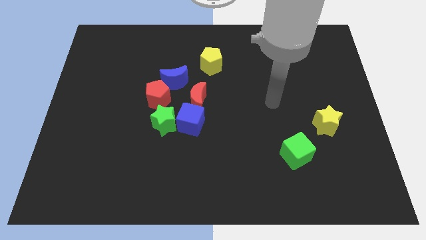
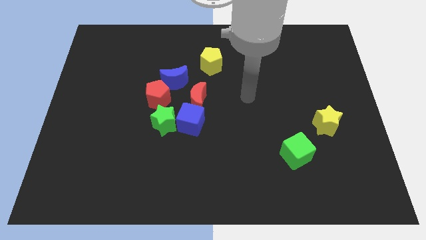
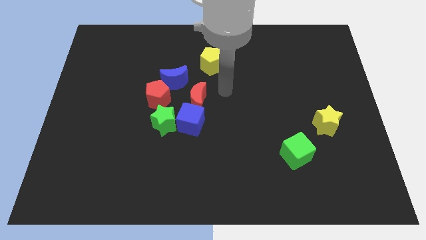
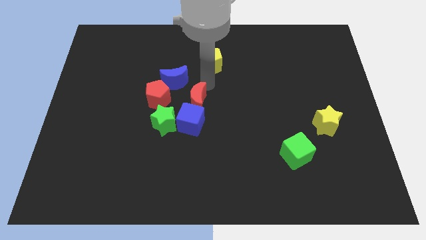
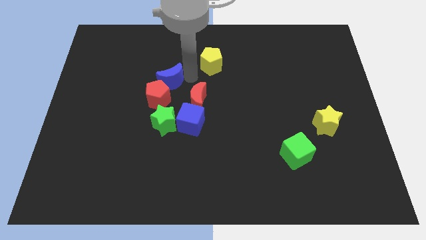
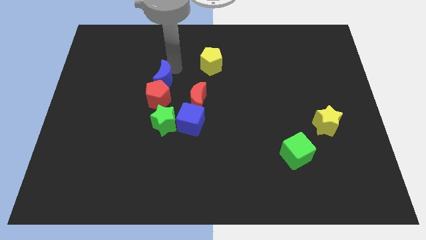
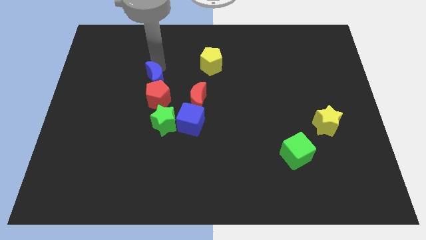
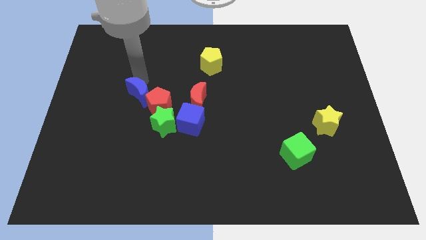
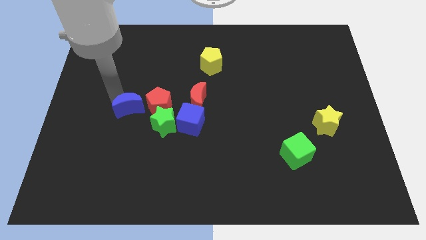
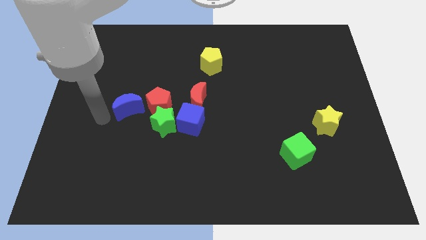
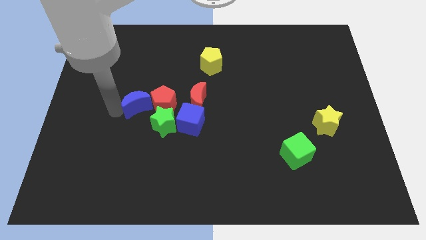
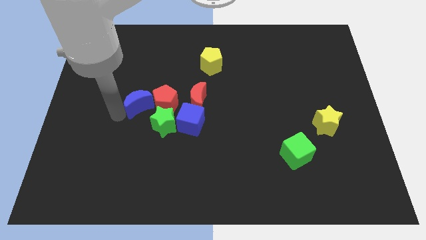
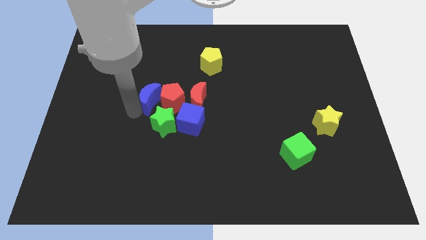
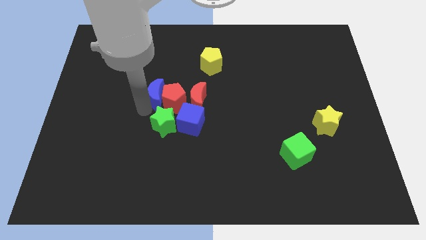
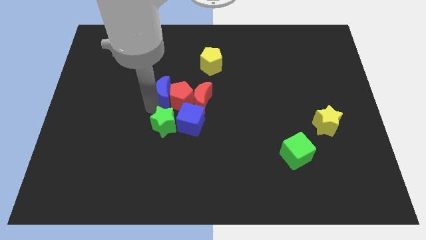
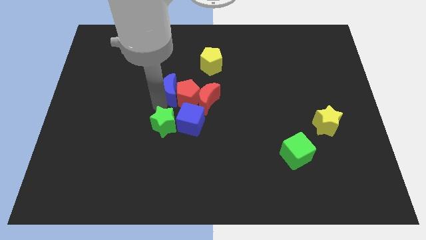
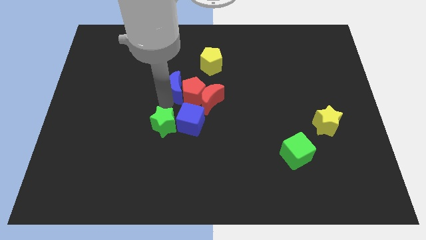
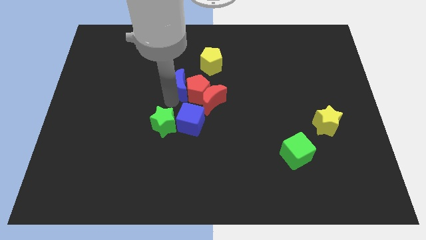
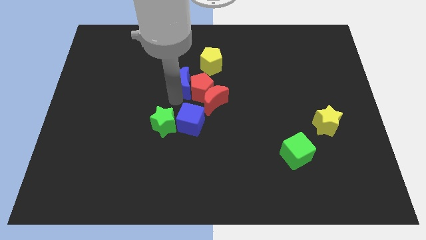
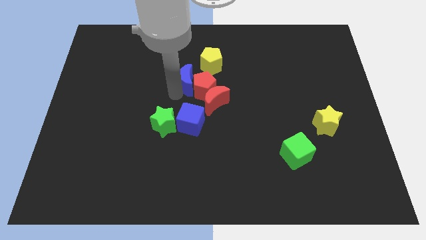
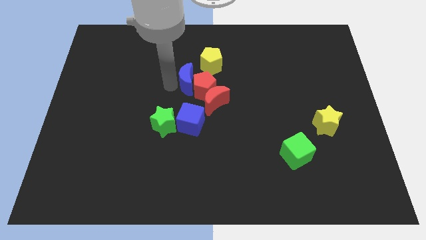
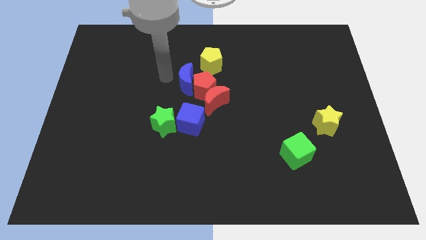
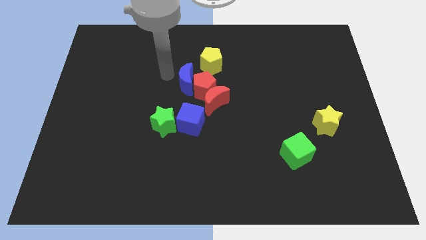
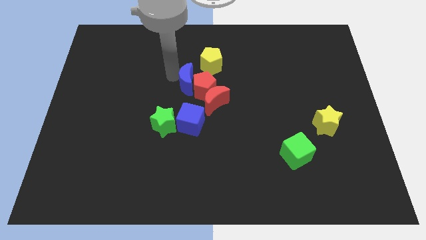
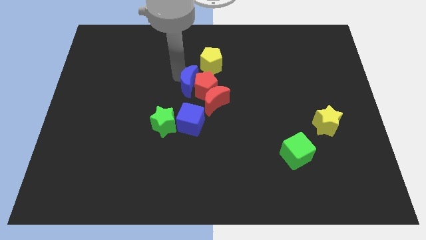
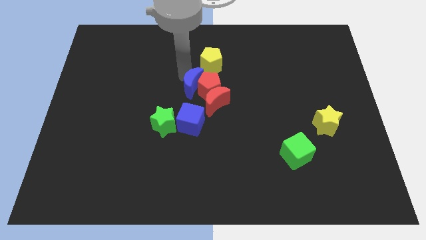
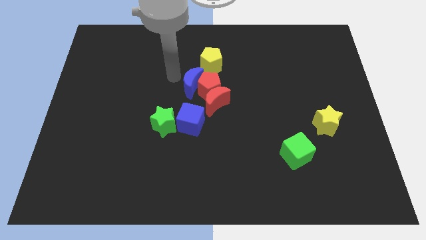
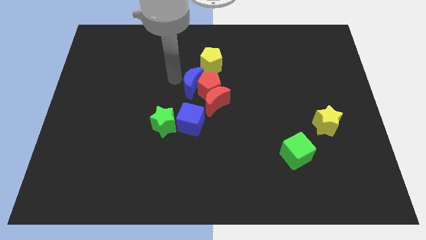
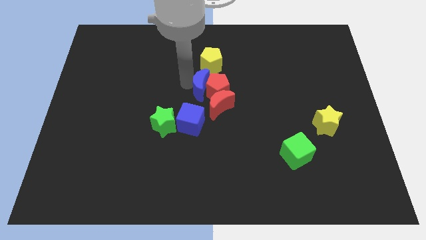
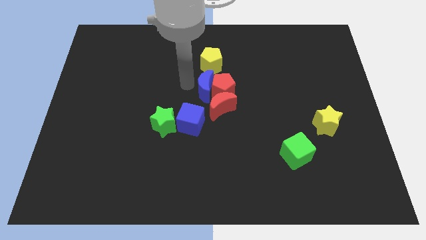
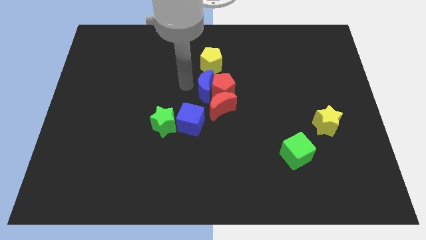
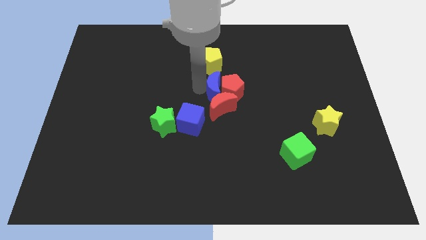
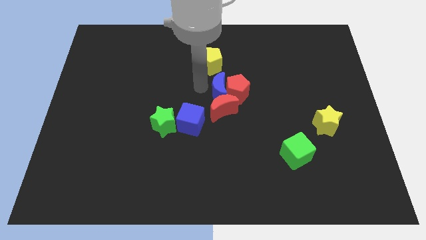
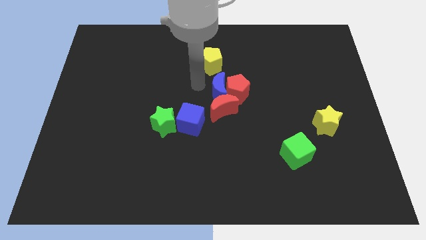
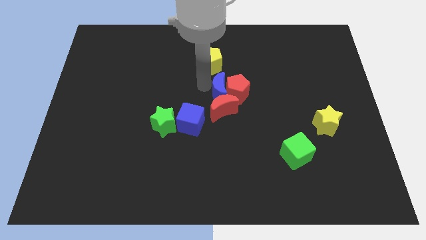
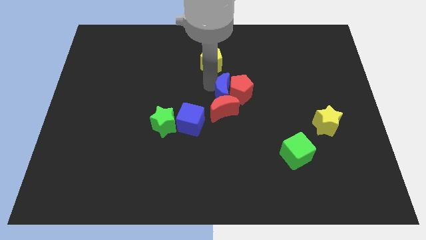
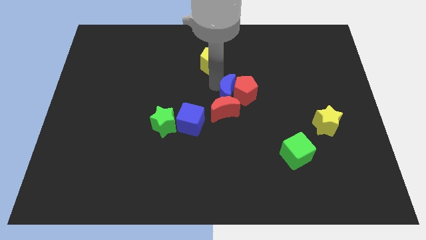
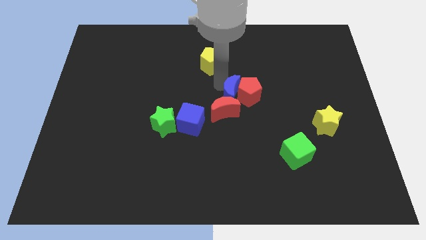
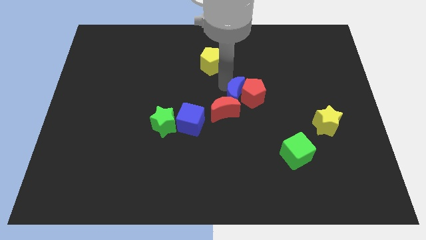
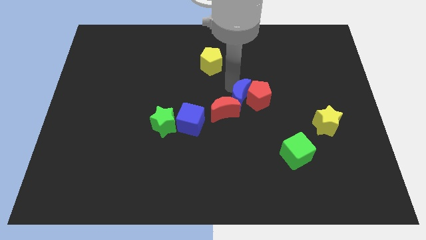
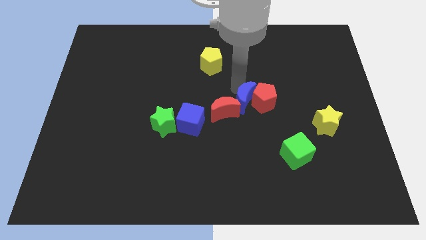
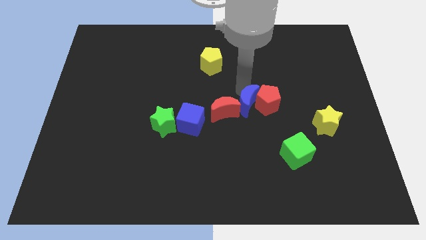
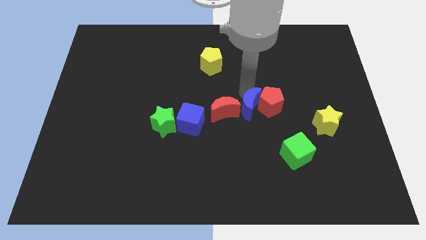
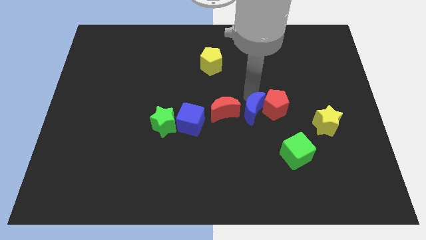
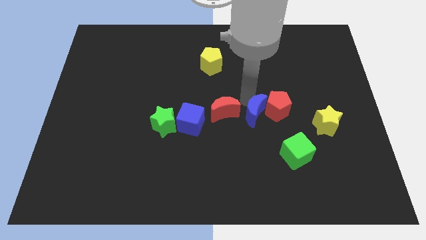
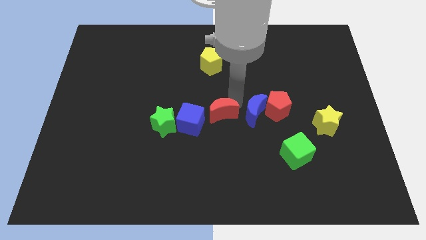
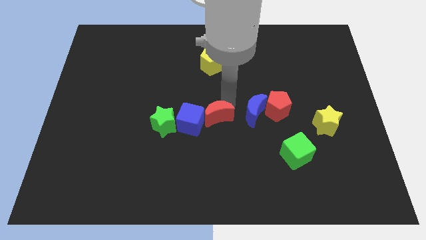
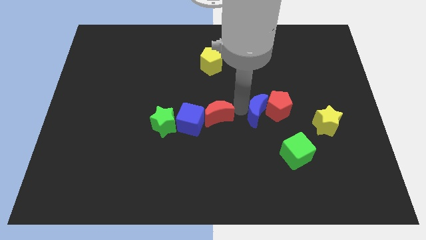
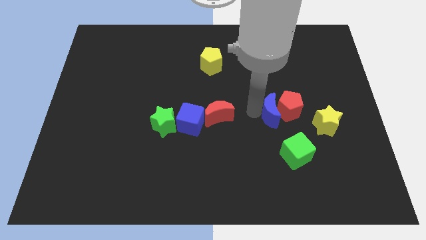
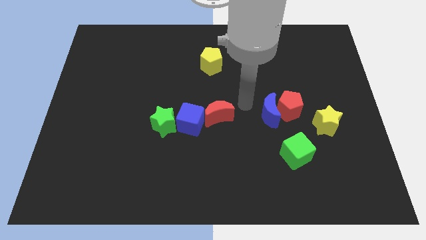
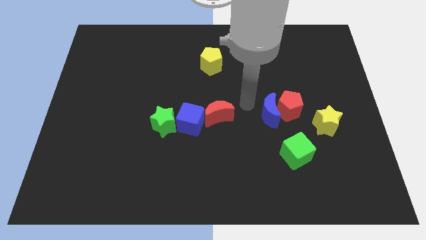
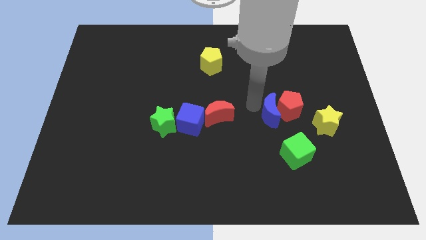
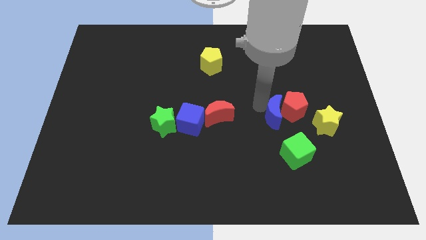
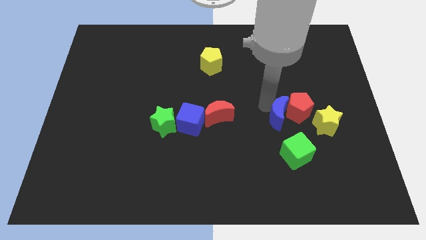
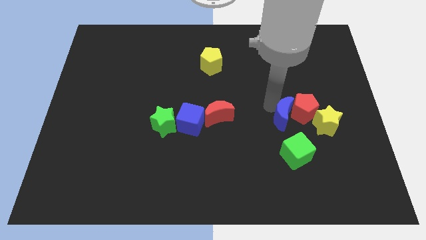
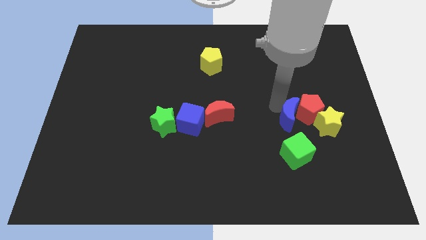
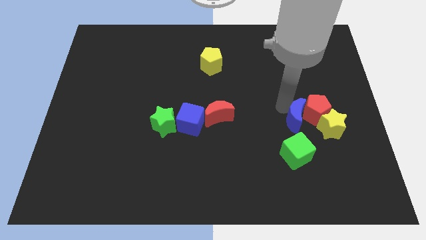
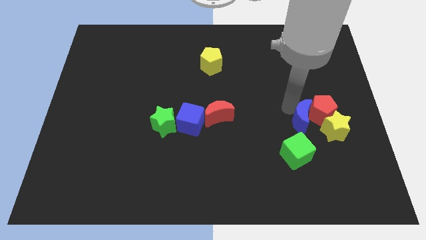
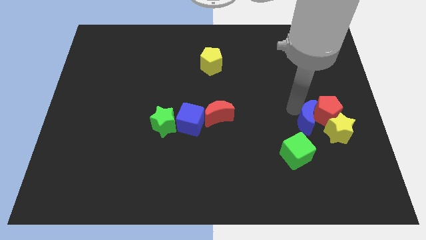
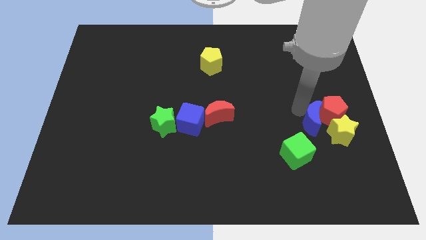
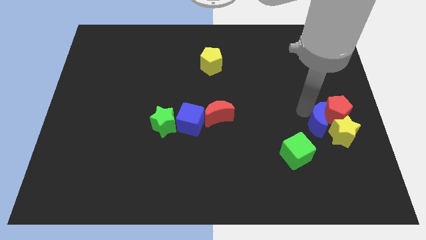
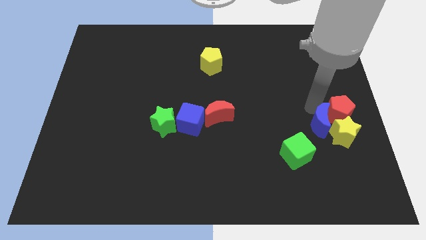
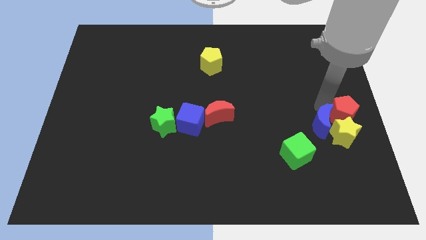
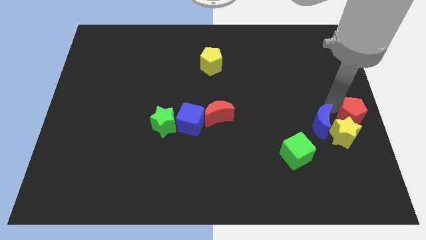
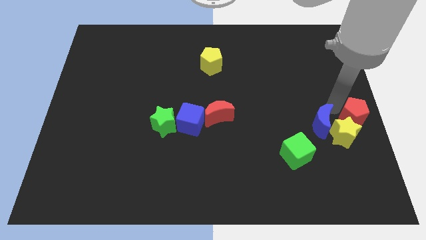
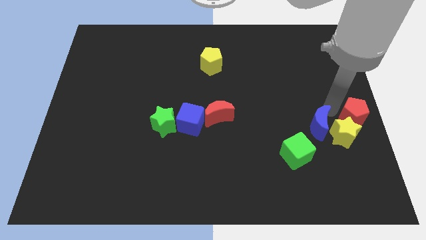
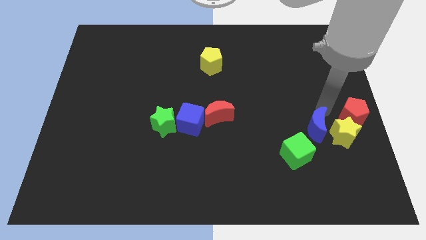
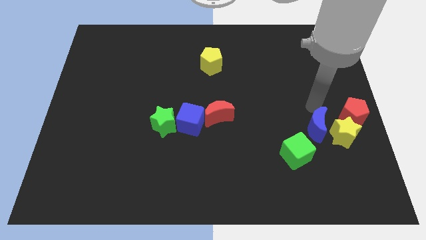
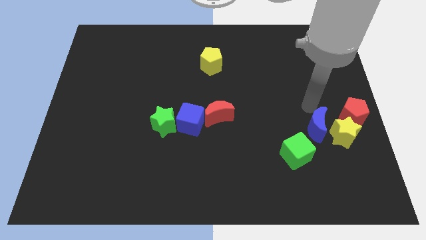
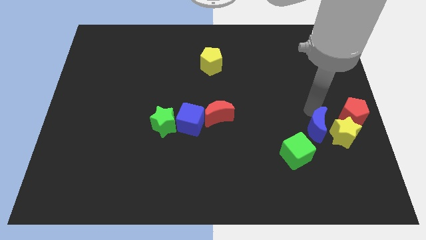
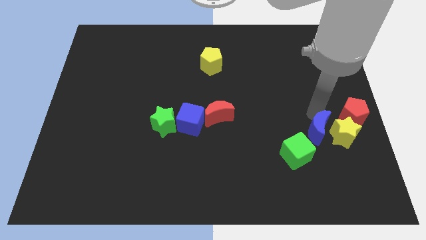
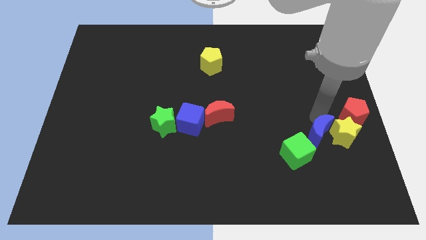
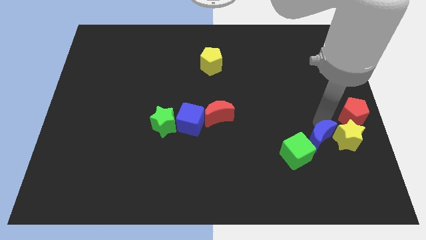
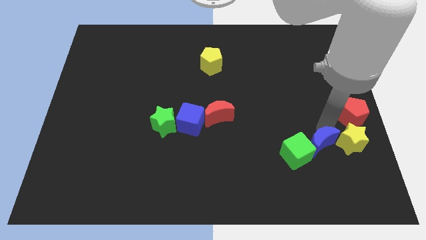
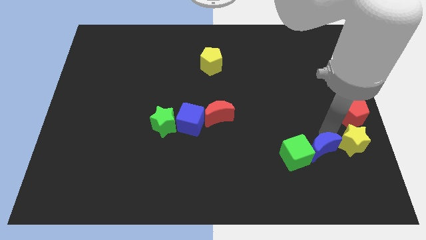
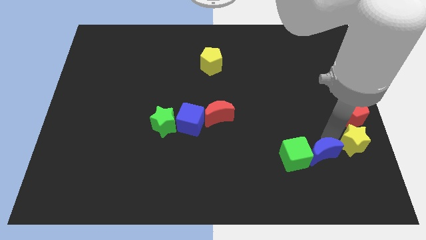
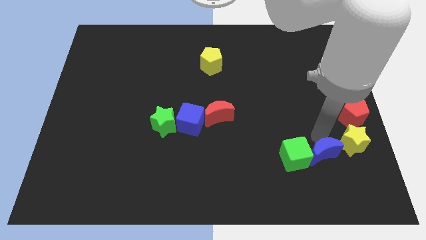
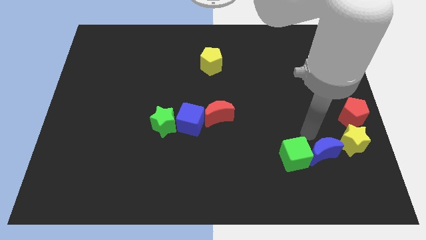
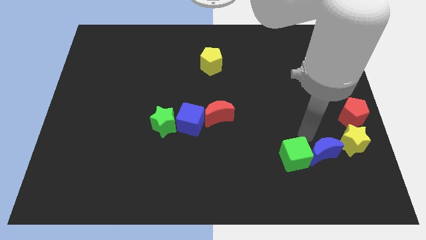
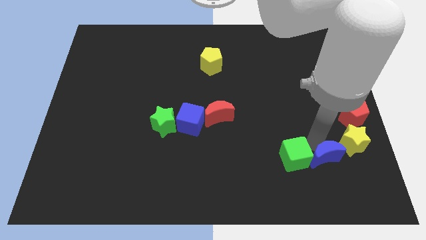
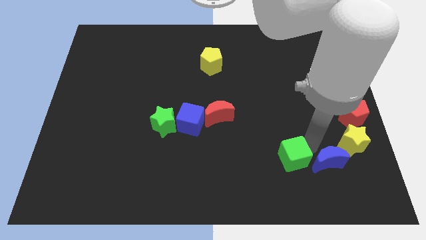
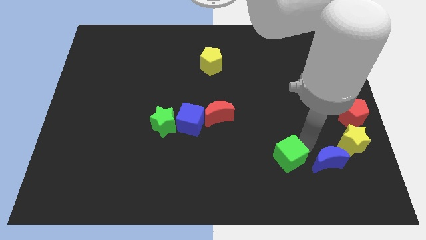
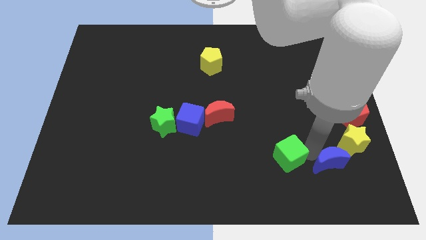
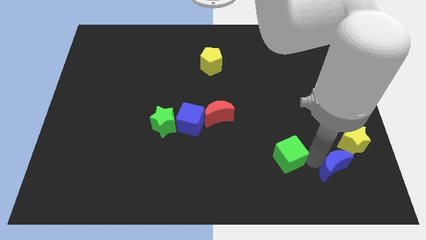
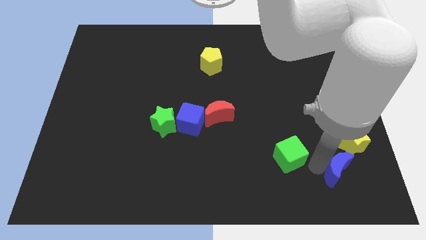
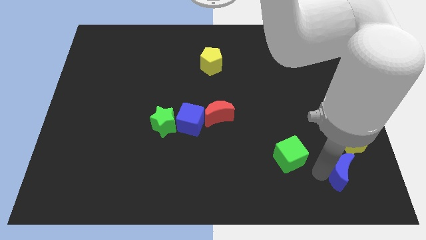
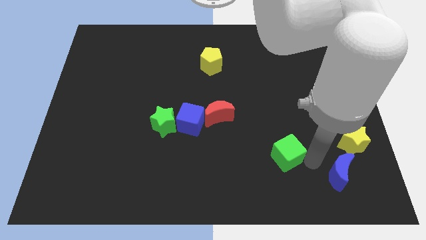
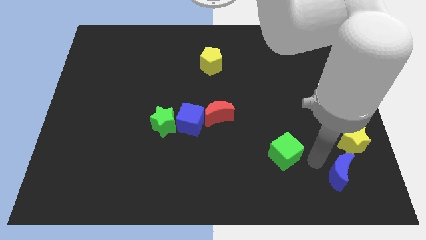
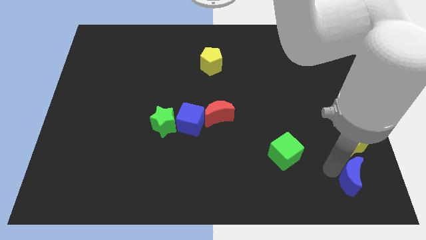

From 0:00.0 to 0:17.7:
slide the blue moon to the lower right corner
